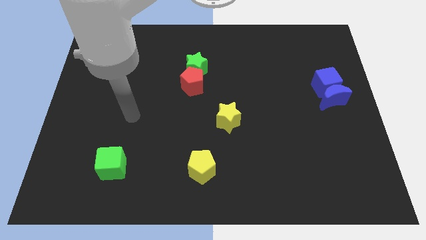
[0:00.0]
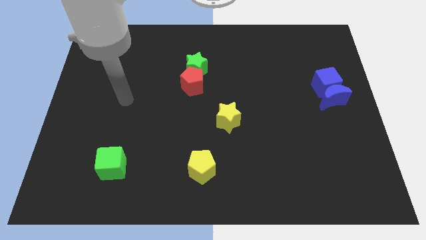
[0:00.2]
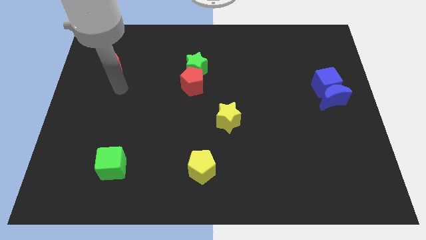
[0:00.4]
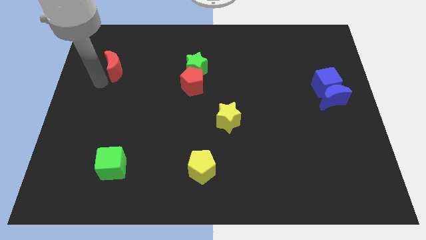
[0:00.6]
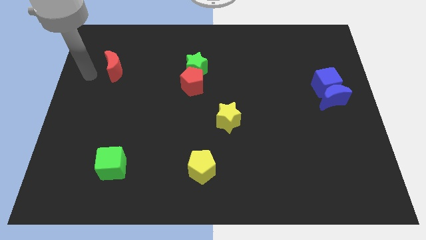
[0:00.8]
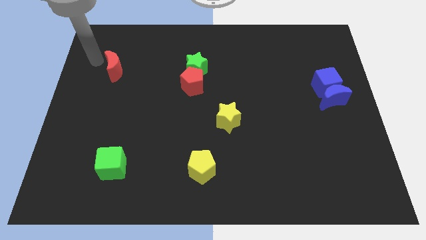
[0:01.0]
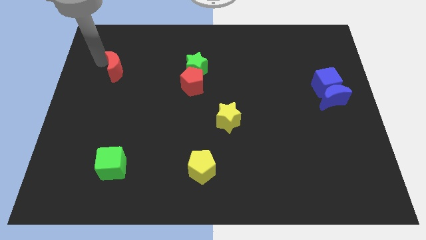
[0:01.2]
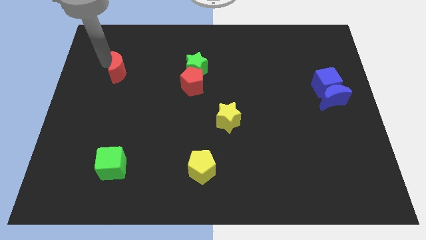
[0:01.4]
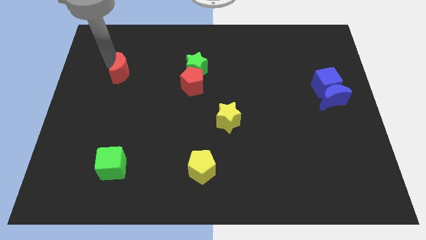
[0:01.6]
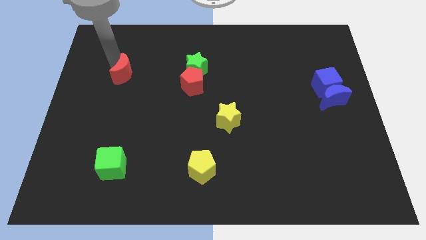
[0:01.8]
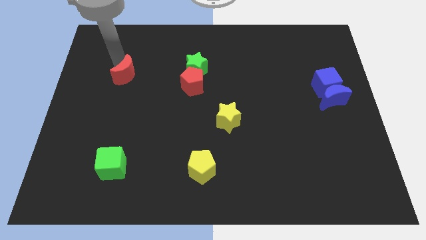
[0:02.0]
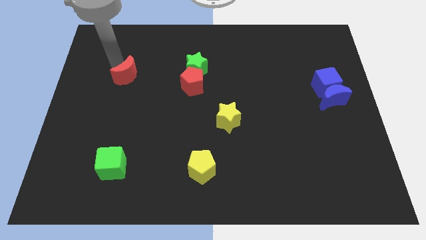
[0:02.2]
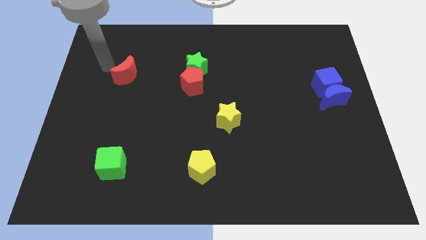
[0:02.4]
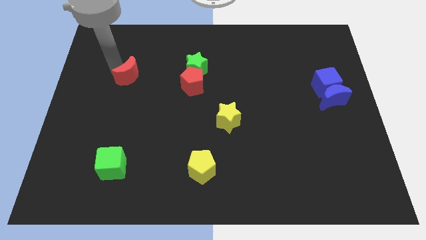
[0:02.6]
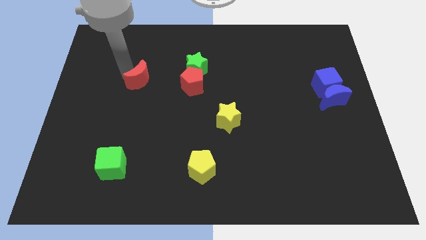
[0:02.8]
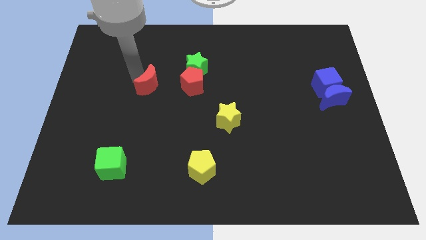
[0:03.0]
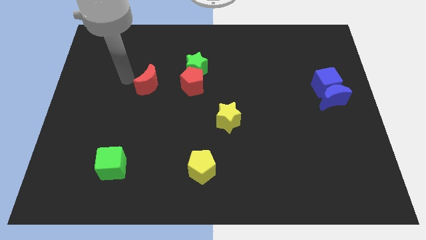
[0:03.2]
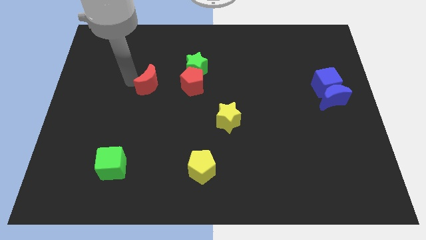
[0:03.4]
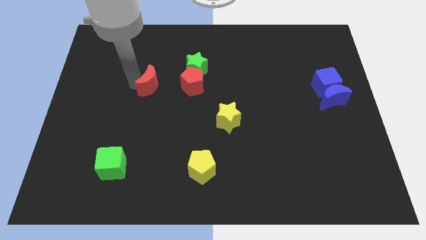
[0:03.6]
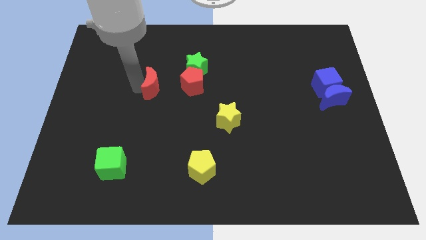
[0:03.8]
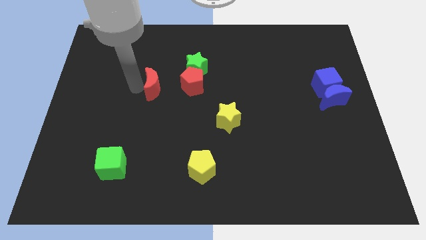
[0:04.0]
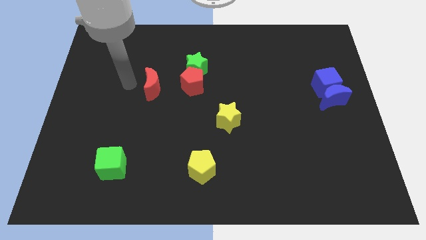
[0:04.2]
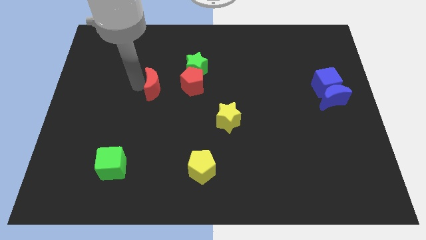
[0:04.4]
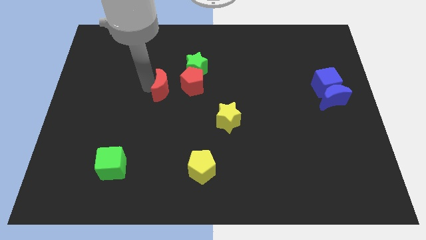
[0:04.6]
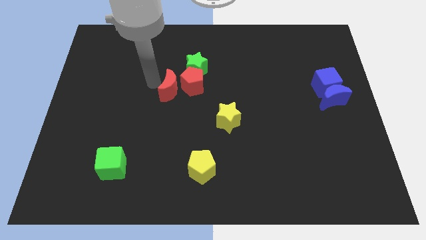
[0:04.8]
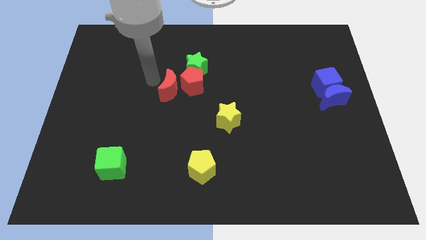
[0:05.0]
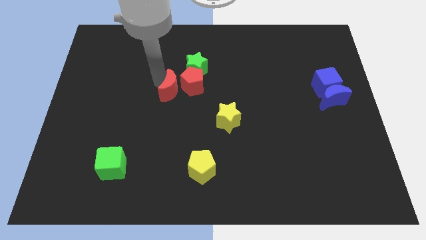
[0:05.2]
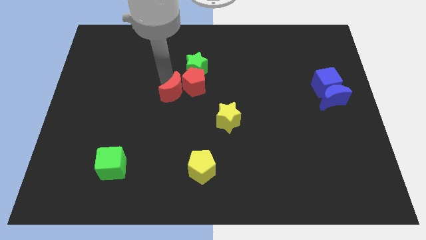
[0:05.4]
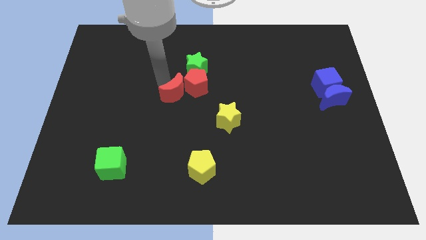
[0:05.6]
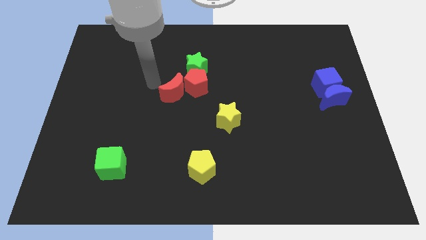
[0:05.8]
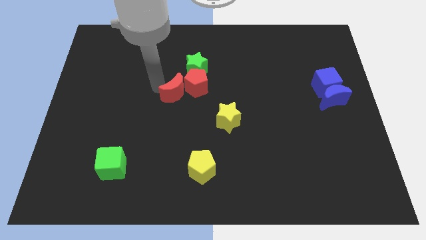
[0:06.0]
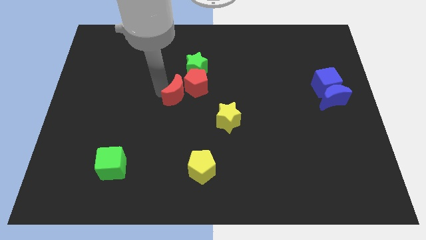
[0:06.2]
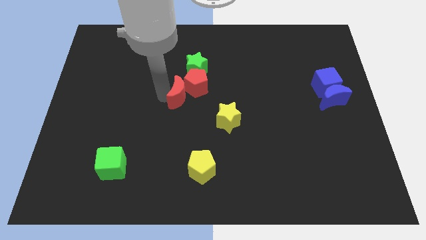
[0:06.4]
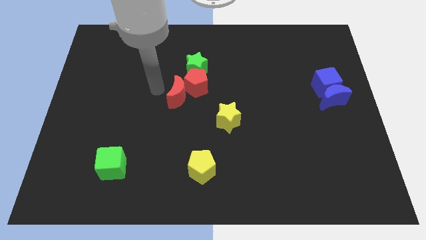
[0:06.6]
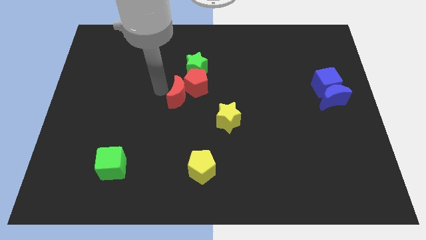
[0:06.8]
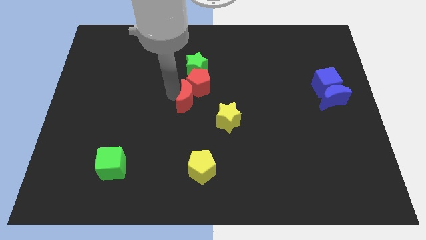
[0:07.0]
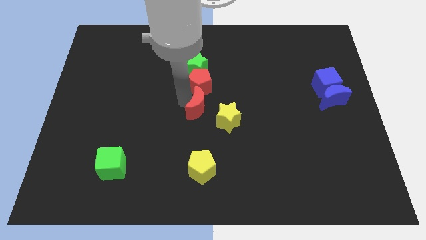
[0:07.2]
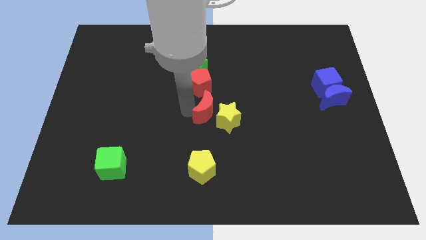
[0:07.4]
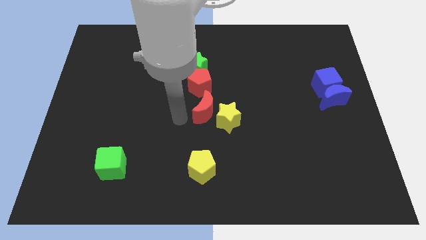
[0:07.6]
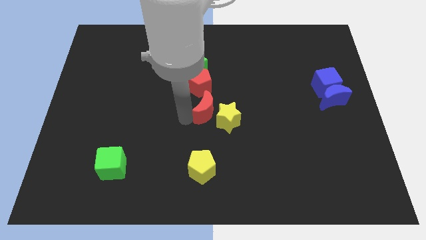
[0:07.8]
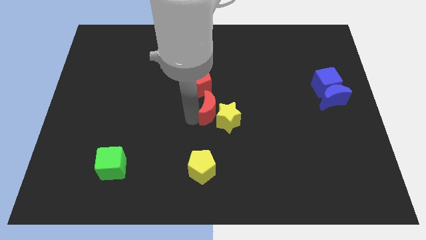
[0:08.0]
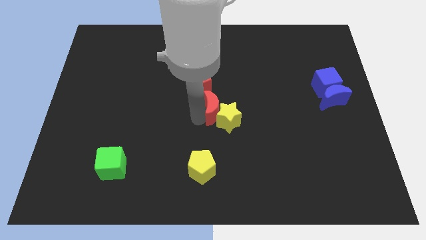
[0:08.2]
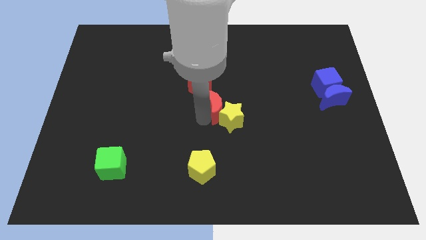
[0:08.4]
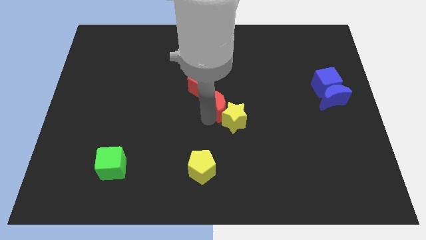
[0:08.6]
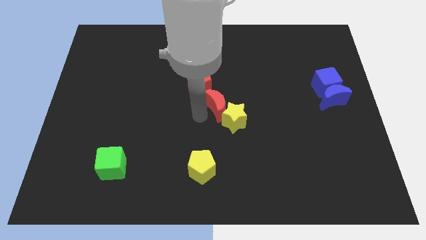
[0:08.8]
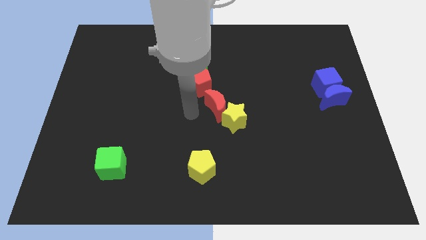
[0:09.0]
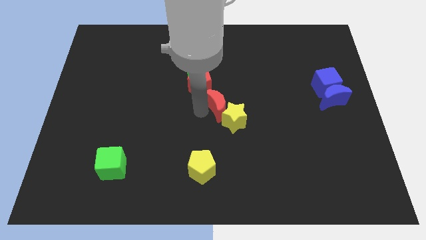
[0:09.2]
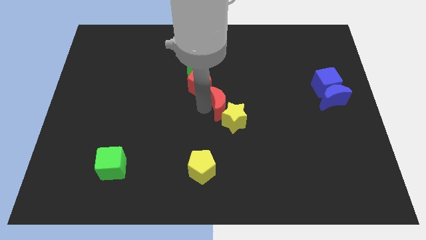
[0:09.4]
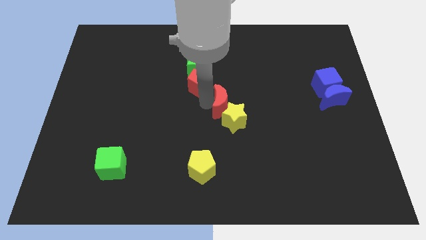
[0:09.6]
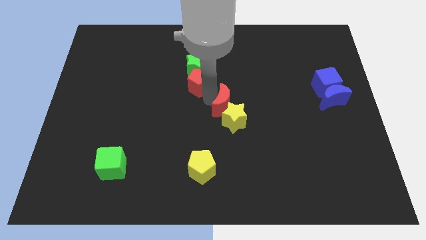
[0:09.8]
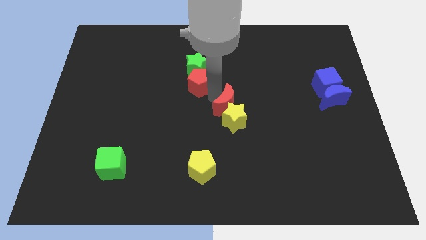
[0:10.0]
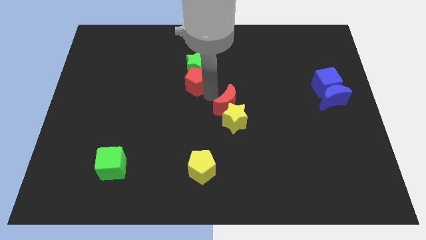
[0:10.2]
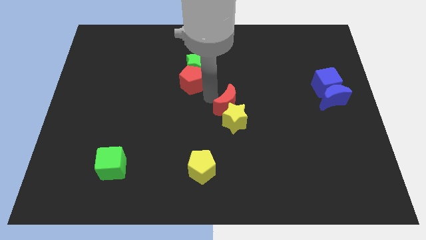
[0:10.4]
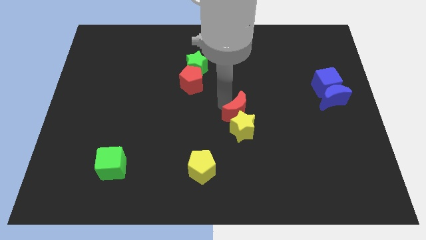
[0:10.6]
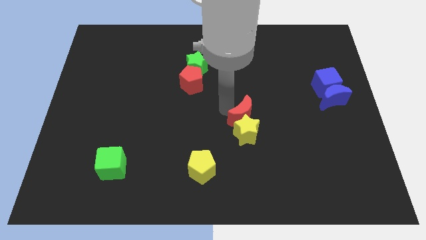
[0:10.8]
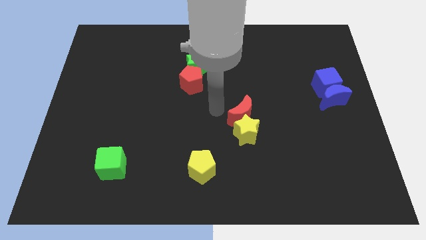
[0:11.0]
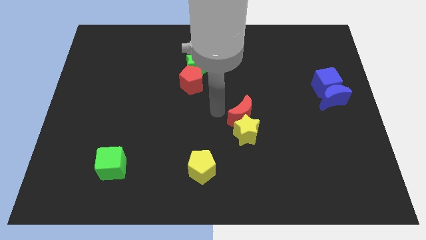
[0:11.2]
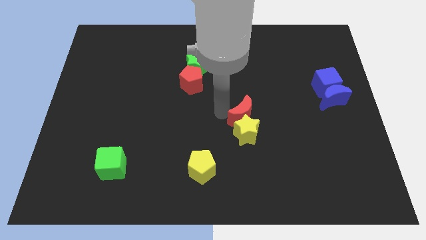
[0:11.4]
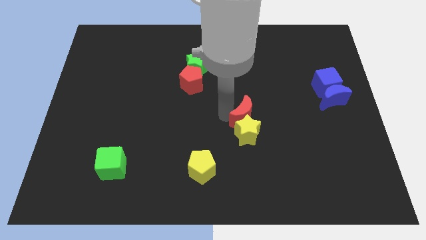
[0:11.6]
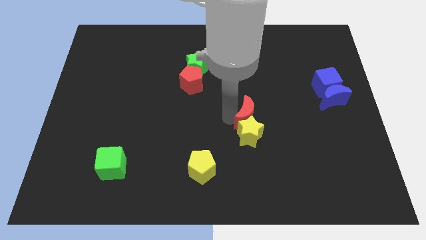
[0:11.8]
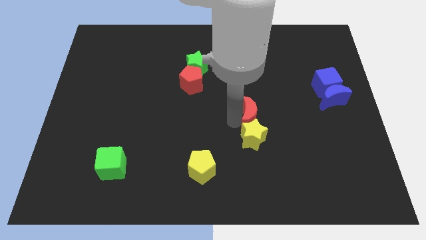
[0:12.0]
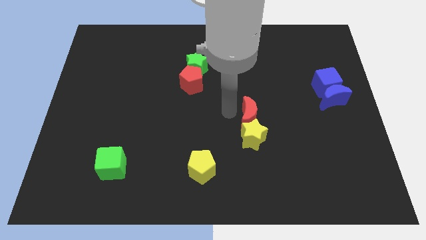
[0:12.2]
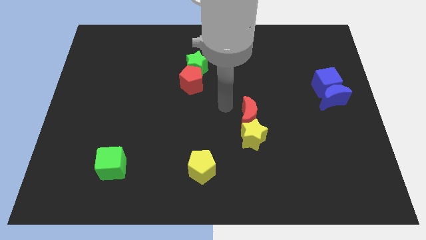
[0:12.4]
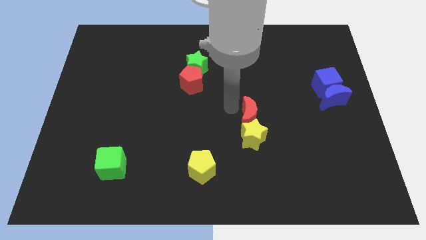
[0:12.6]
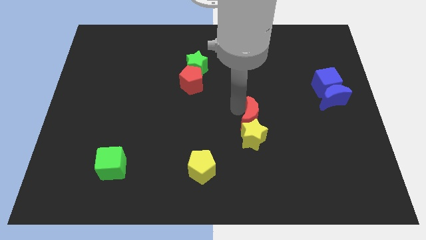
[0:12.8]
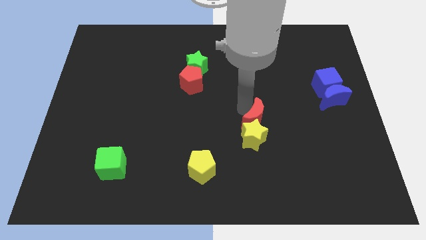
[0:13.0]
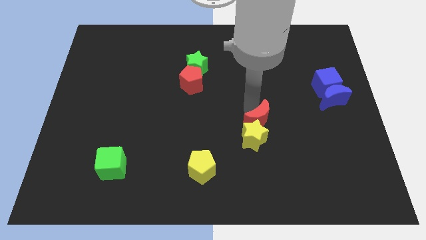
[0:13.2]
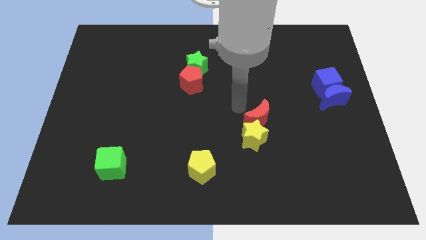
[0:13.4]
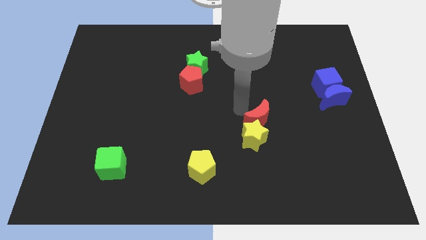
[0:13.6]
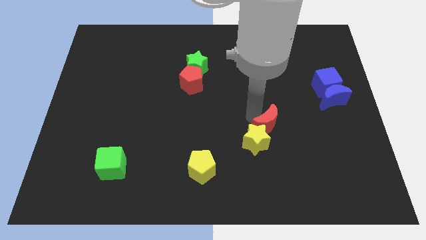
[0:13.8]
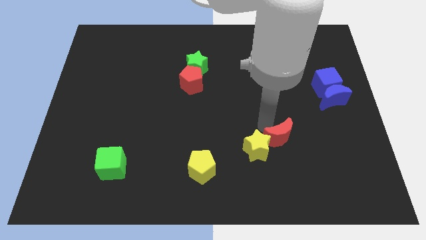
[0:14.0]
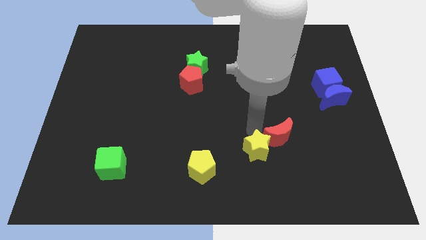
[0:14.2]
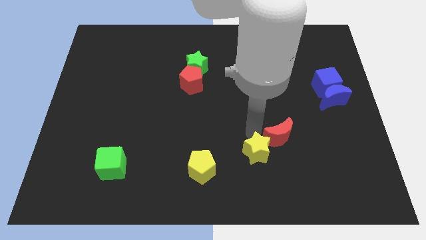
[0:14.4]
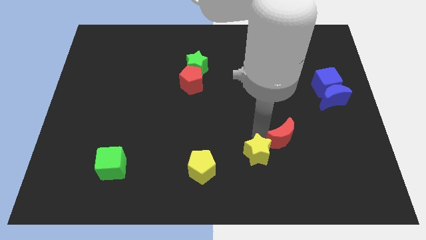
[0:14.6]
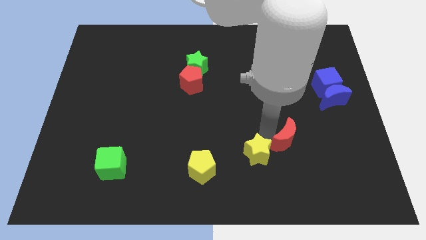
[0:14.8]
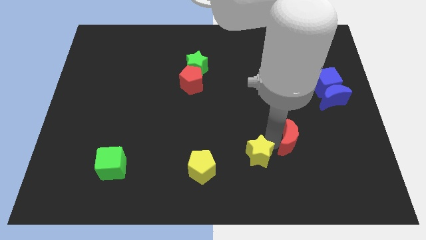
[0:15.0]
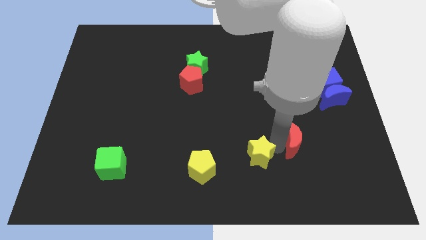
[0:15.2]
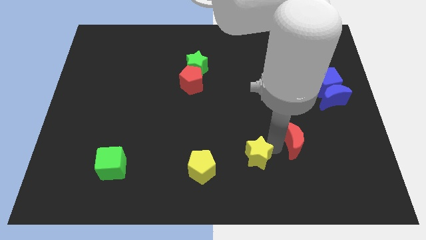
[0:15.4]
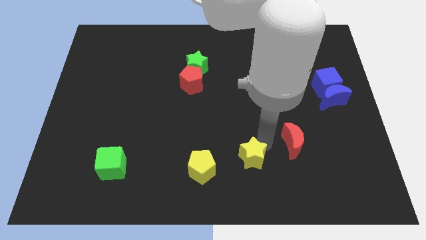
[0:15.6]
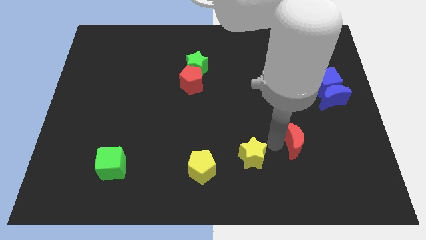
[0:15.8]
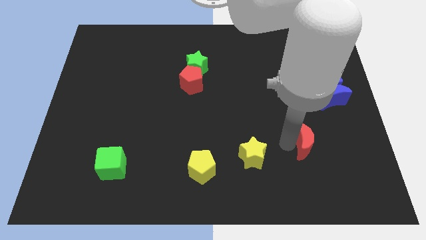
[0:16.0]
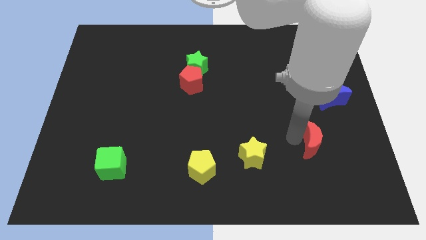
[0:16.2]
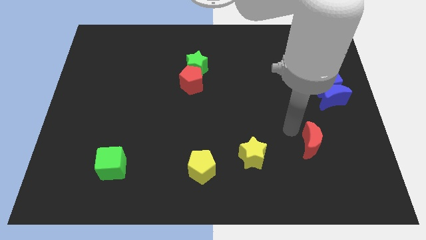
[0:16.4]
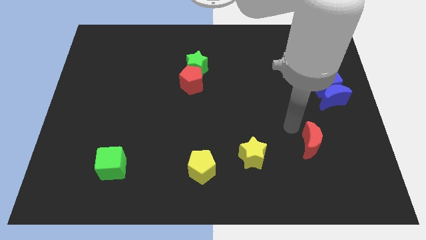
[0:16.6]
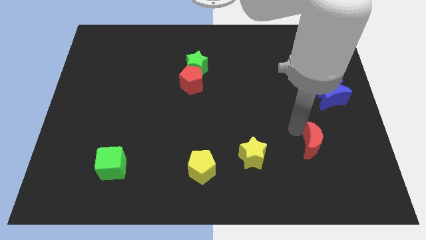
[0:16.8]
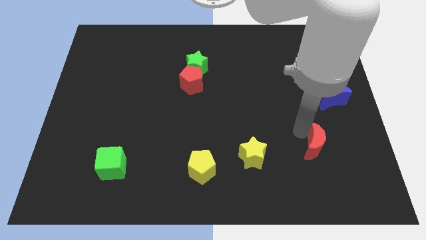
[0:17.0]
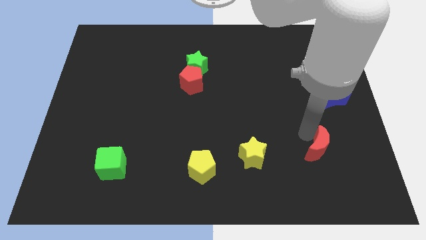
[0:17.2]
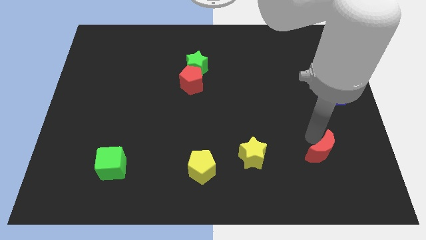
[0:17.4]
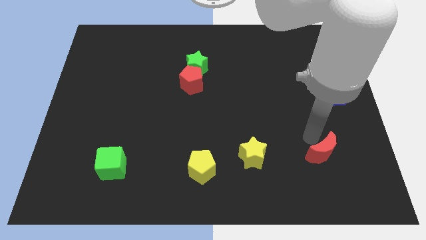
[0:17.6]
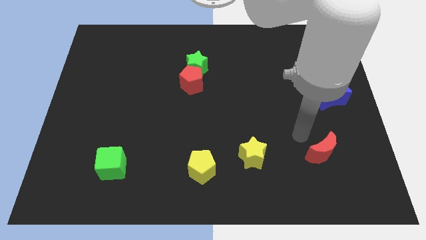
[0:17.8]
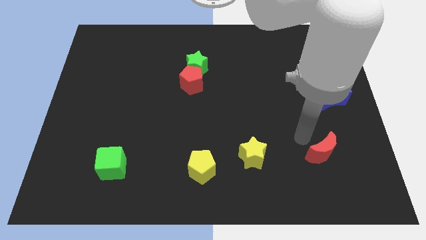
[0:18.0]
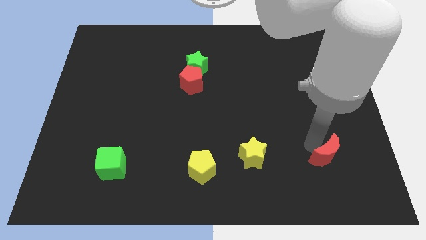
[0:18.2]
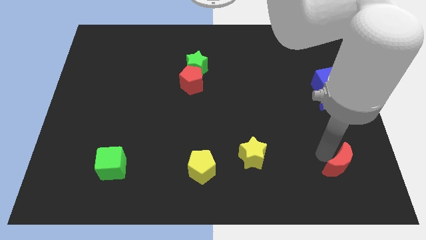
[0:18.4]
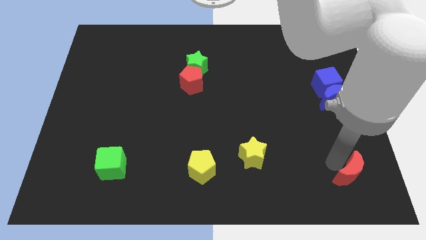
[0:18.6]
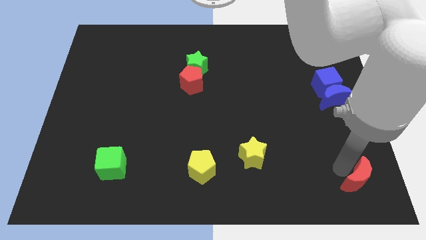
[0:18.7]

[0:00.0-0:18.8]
push the red moon to the bottom right of the board
